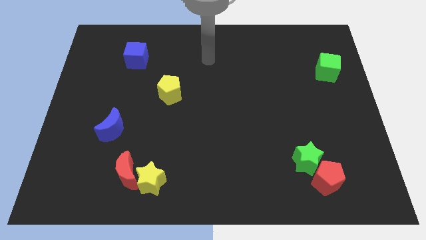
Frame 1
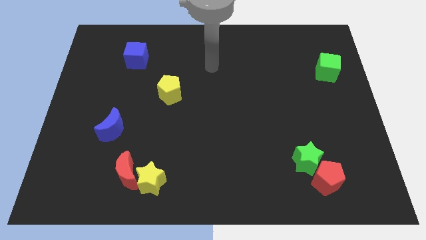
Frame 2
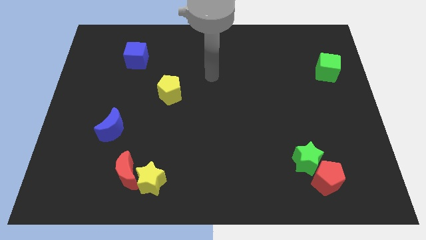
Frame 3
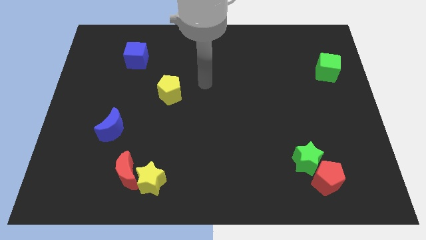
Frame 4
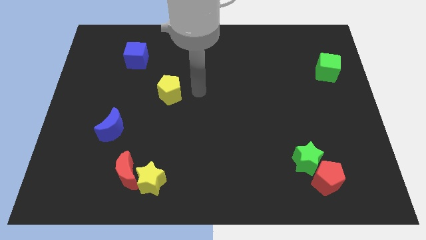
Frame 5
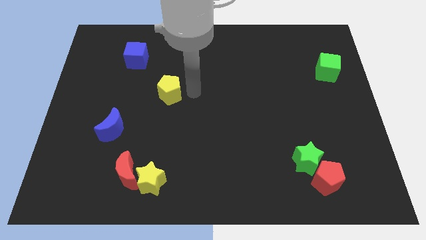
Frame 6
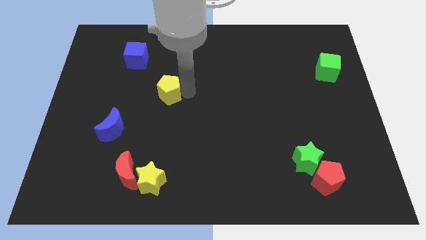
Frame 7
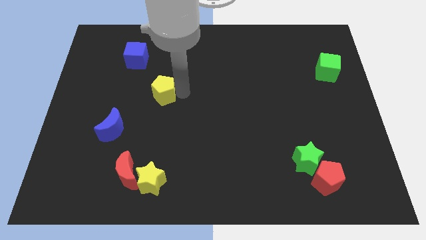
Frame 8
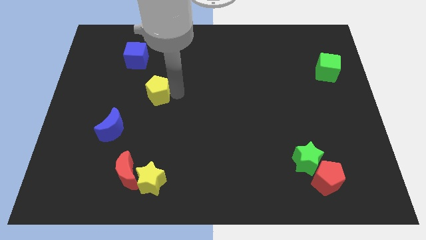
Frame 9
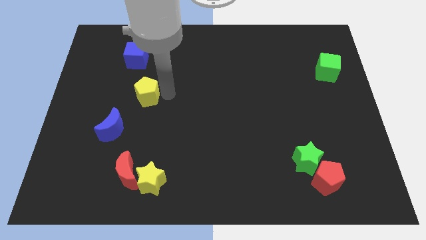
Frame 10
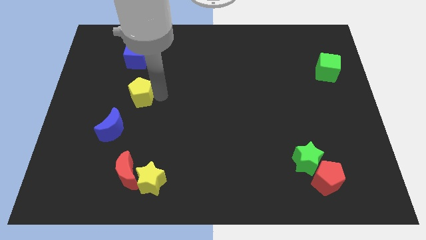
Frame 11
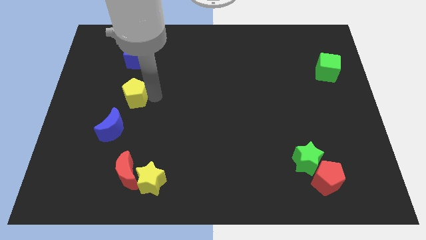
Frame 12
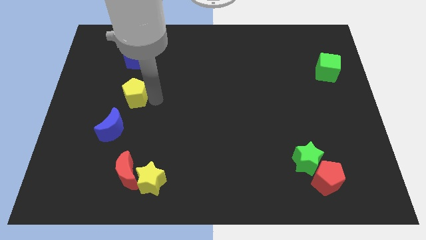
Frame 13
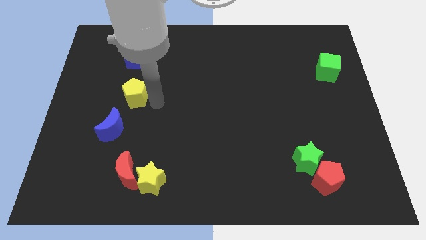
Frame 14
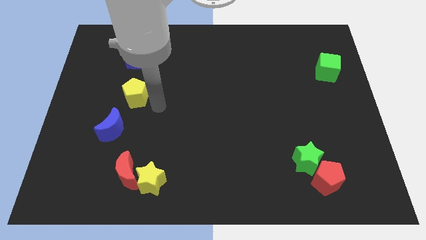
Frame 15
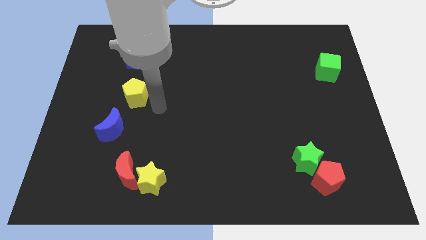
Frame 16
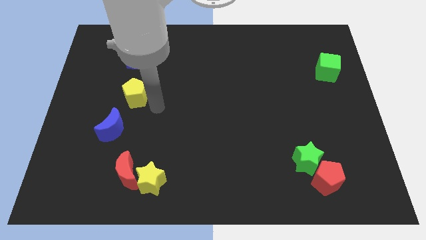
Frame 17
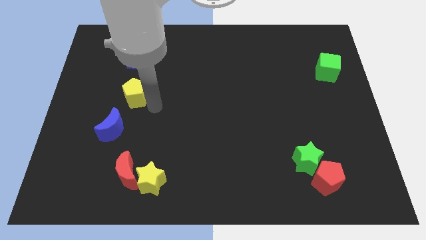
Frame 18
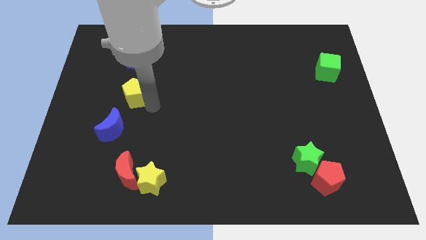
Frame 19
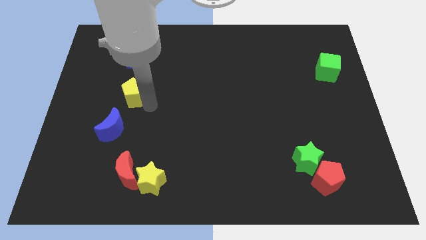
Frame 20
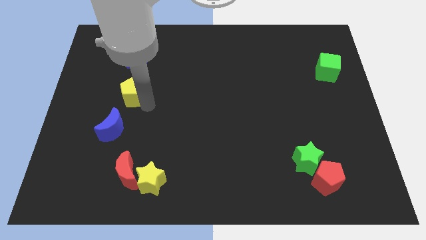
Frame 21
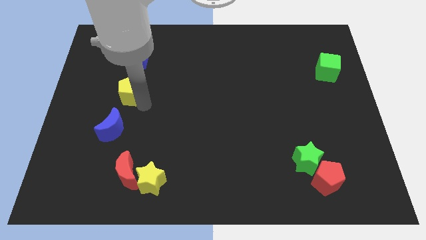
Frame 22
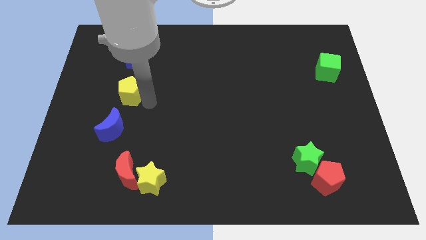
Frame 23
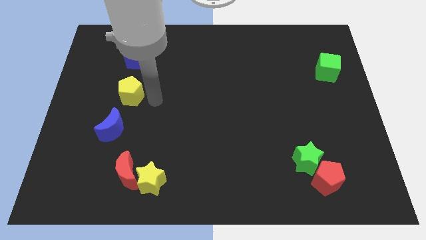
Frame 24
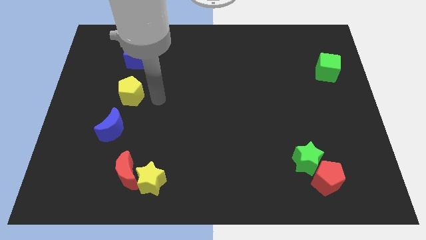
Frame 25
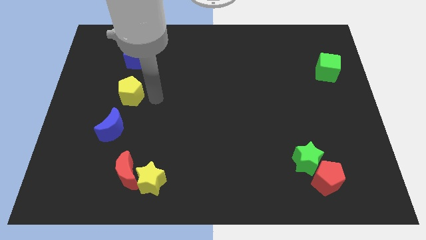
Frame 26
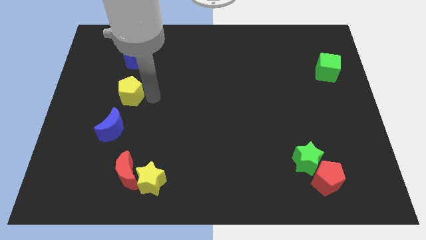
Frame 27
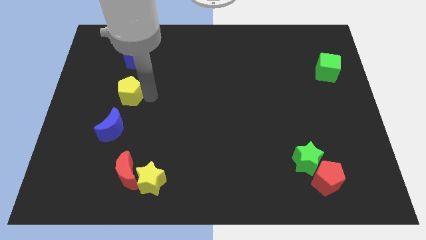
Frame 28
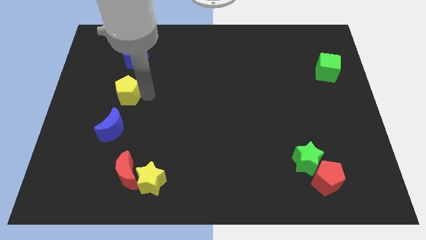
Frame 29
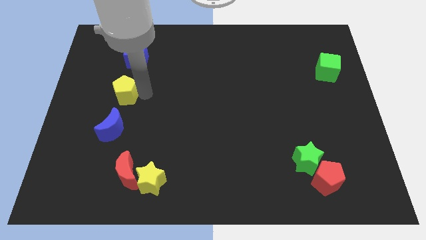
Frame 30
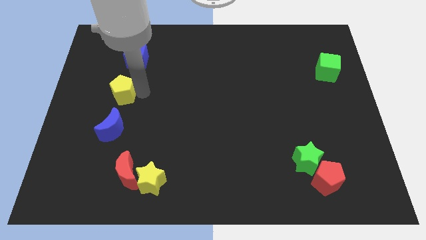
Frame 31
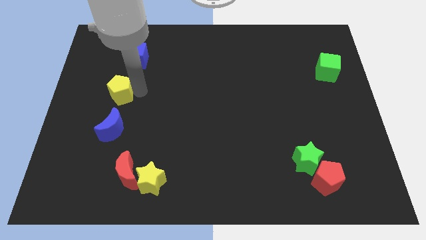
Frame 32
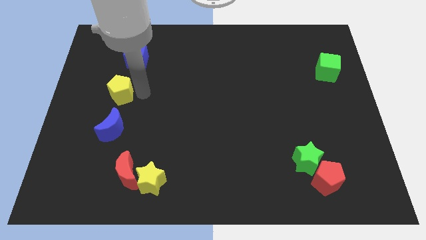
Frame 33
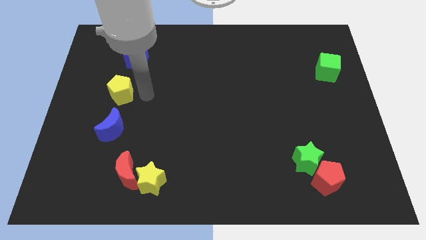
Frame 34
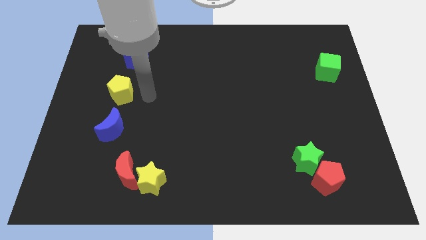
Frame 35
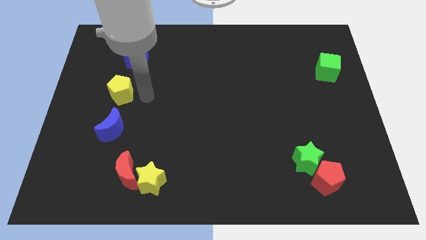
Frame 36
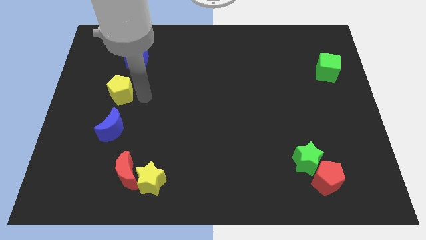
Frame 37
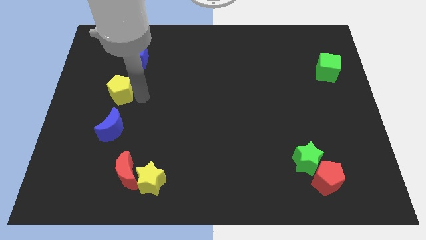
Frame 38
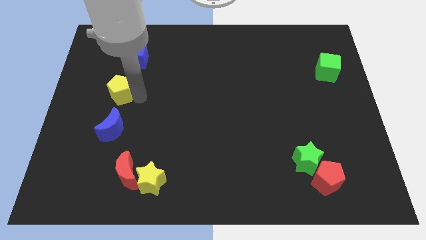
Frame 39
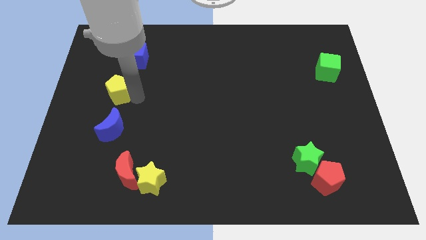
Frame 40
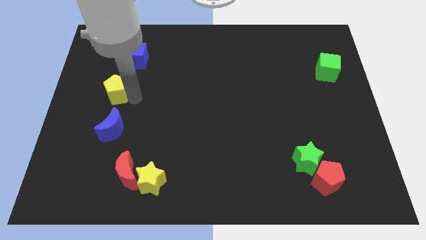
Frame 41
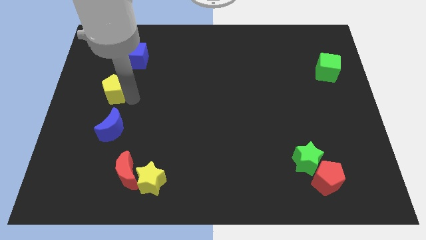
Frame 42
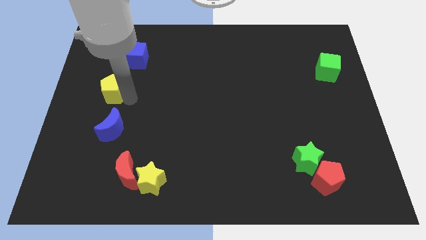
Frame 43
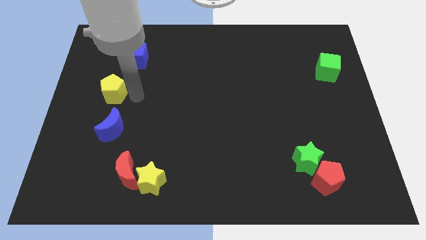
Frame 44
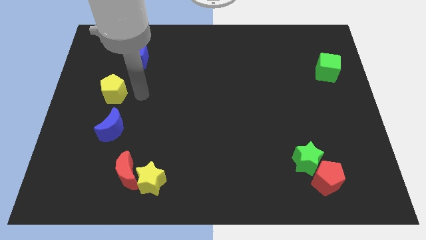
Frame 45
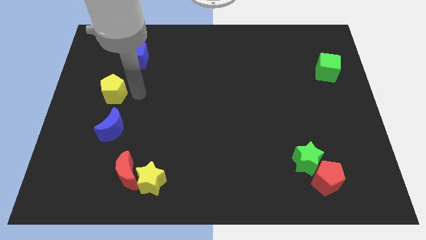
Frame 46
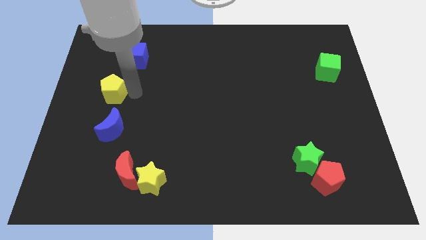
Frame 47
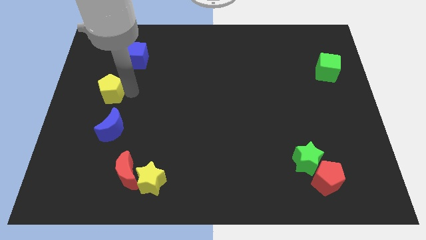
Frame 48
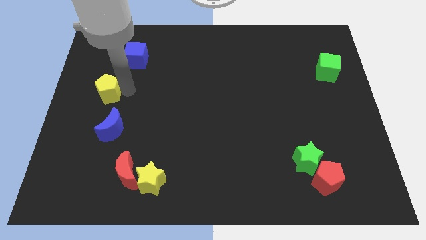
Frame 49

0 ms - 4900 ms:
slide the yellow pentagon to the left side

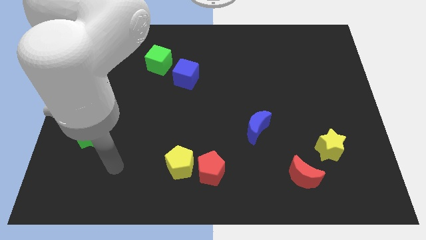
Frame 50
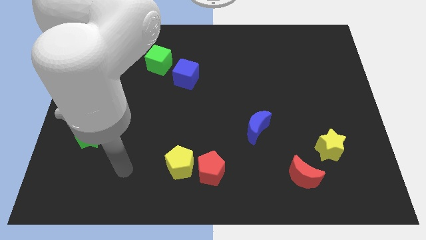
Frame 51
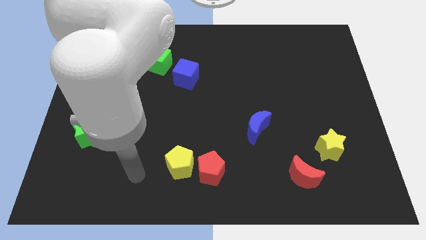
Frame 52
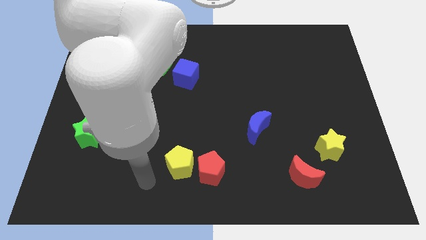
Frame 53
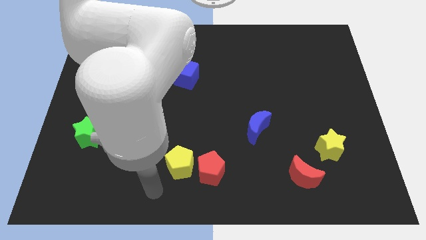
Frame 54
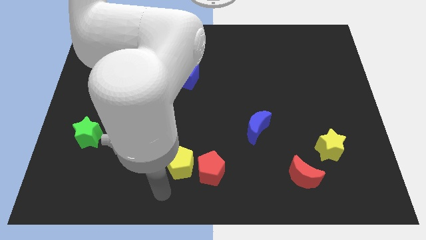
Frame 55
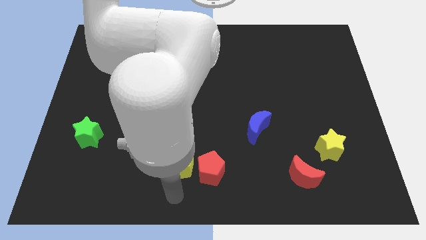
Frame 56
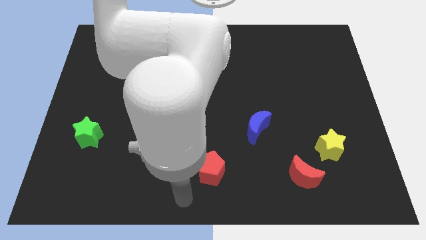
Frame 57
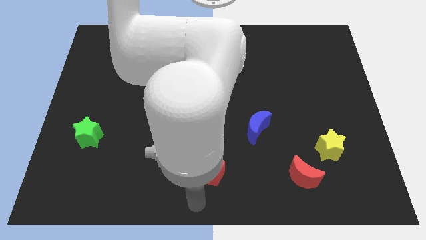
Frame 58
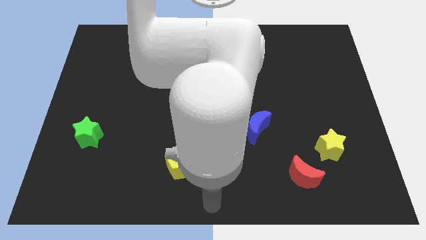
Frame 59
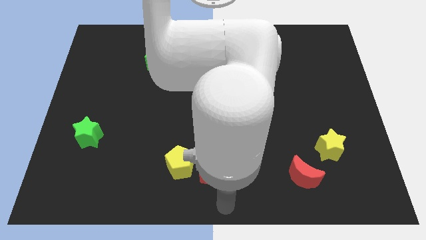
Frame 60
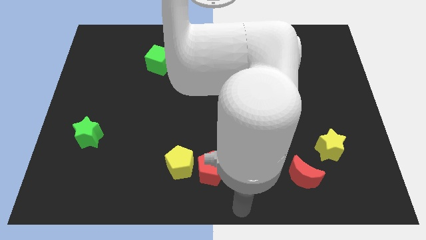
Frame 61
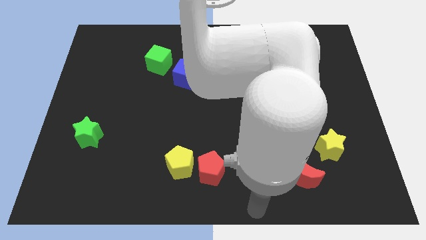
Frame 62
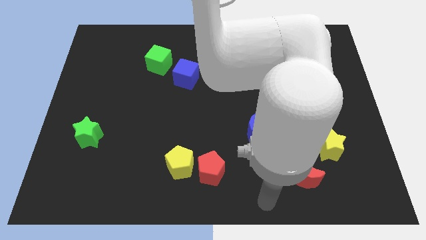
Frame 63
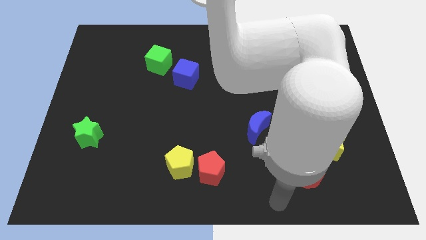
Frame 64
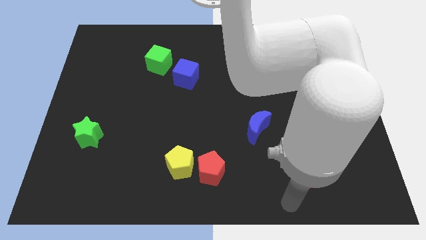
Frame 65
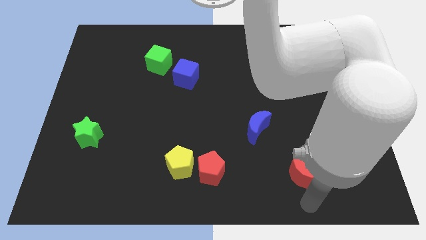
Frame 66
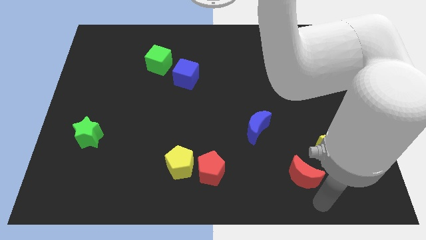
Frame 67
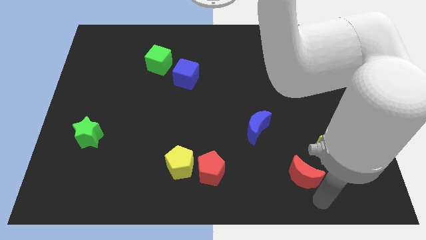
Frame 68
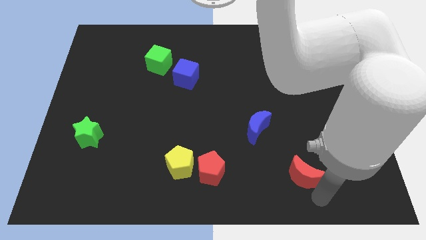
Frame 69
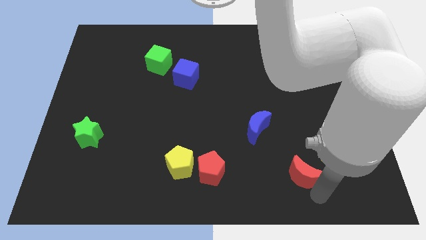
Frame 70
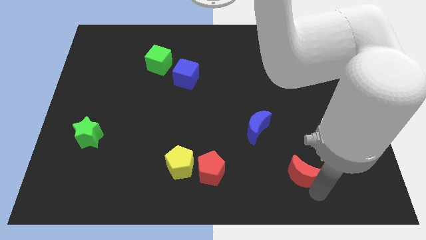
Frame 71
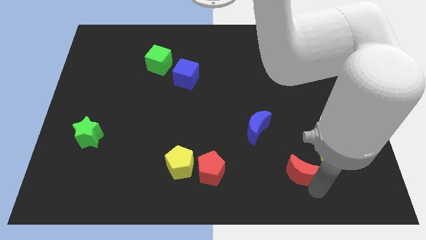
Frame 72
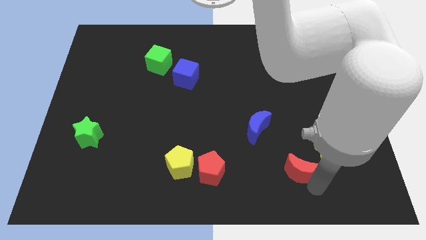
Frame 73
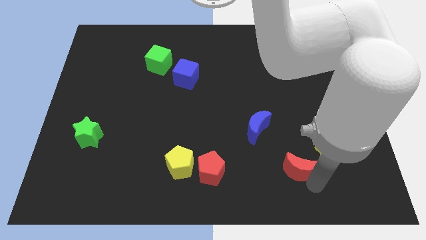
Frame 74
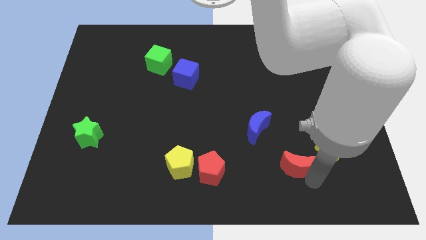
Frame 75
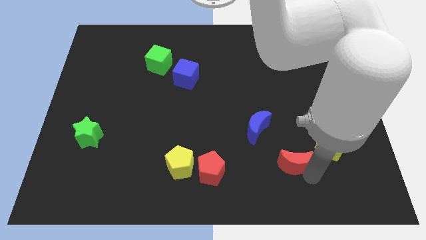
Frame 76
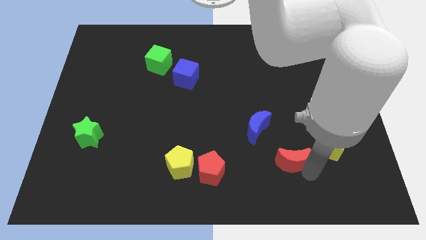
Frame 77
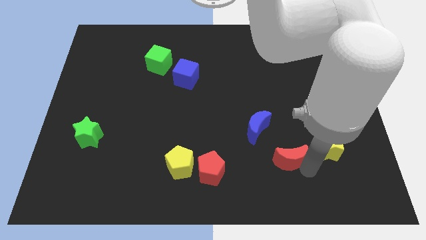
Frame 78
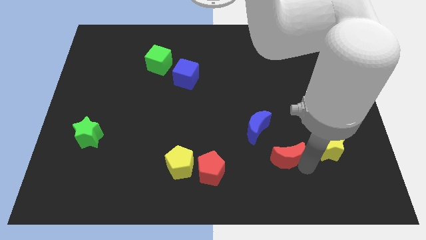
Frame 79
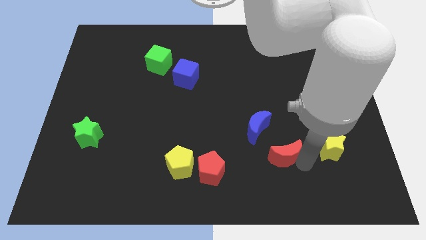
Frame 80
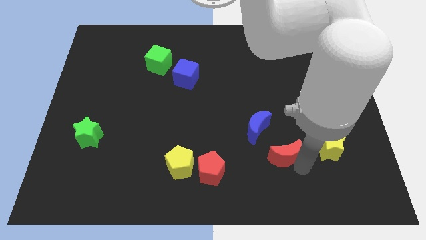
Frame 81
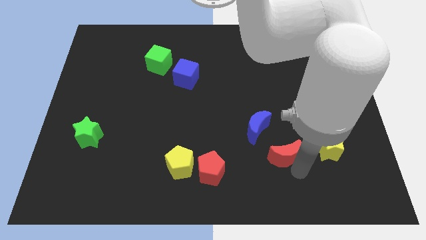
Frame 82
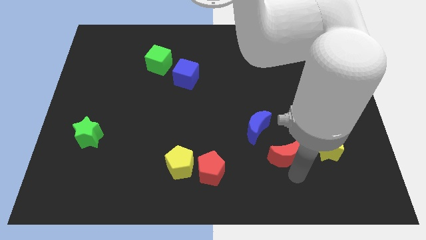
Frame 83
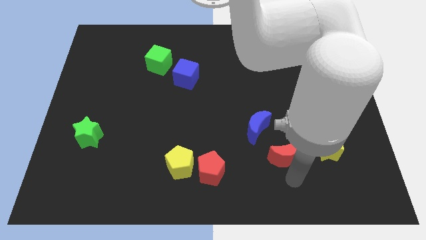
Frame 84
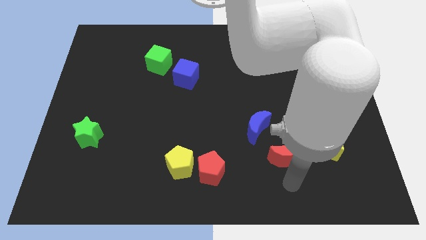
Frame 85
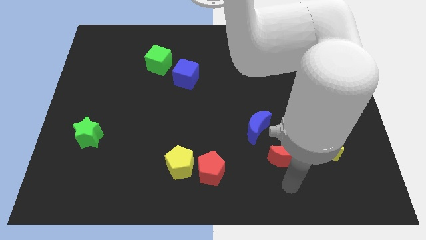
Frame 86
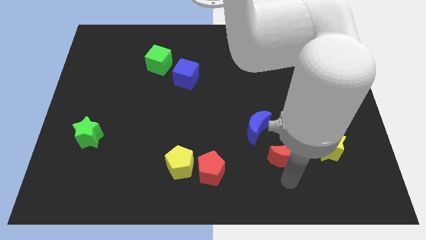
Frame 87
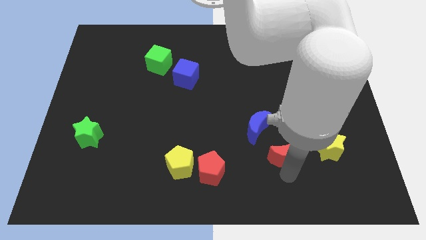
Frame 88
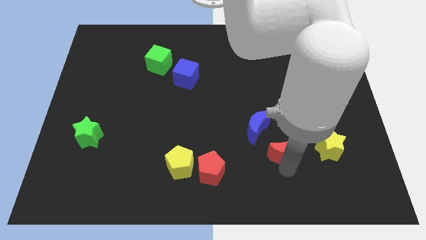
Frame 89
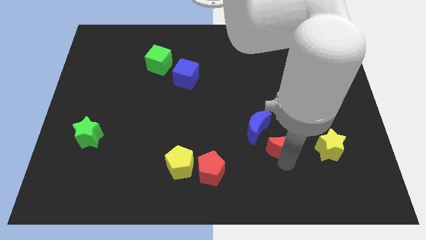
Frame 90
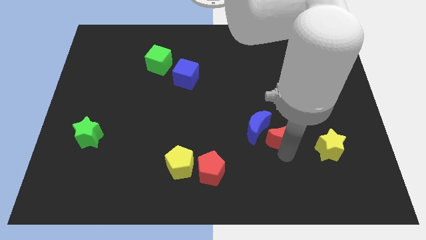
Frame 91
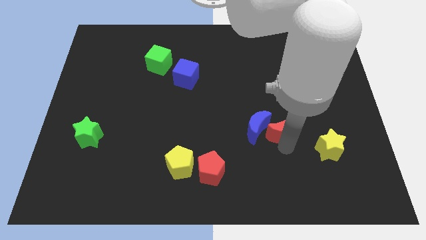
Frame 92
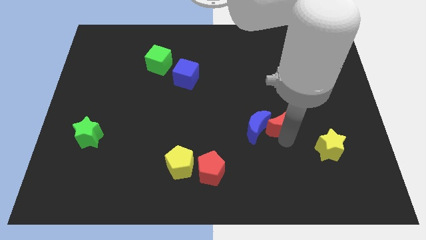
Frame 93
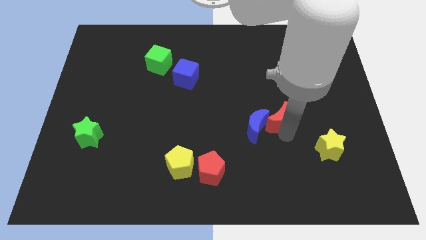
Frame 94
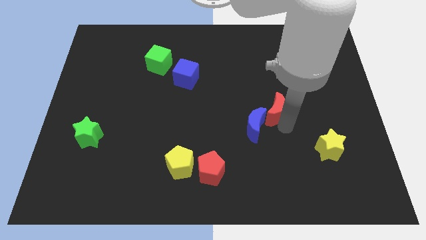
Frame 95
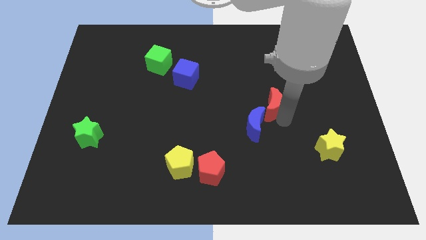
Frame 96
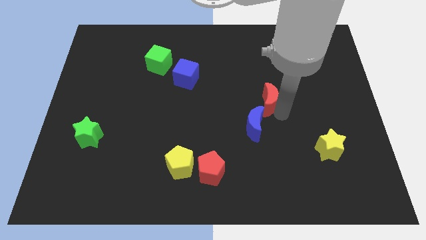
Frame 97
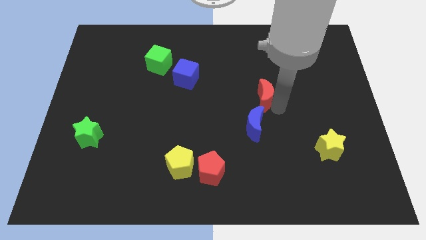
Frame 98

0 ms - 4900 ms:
push the red moon to the center of the board
